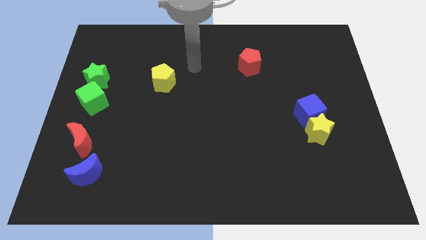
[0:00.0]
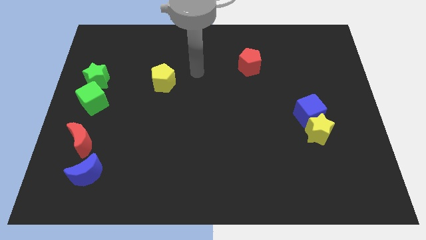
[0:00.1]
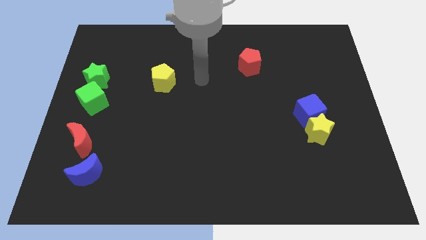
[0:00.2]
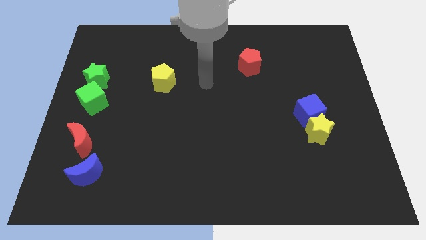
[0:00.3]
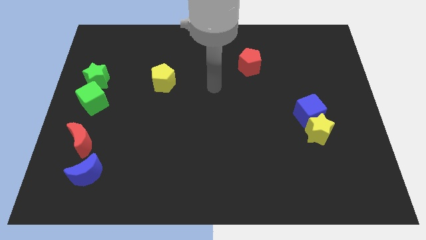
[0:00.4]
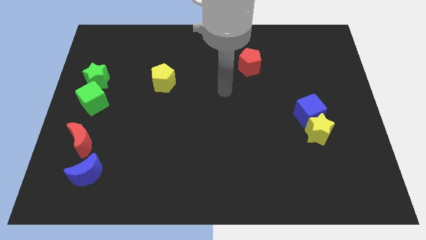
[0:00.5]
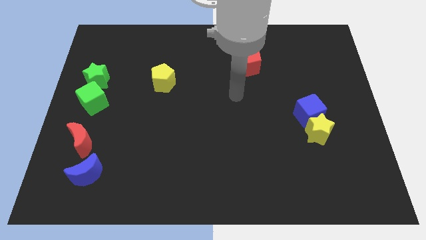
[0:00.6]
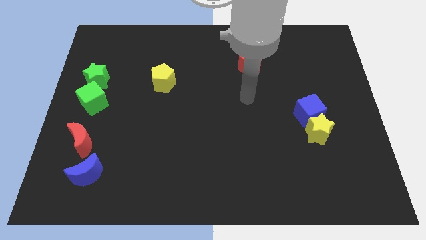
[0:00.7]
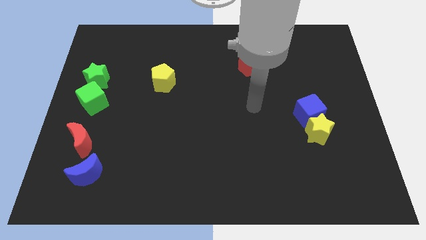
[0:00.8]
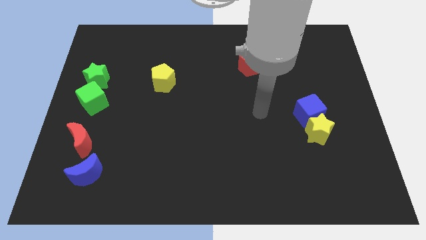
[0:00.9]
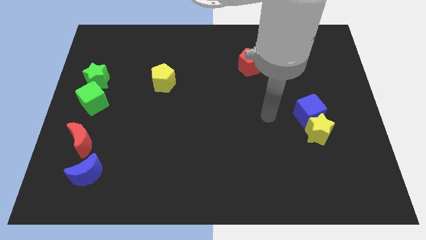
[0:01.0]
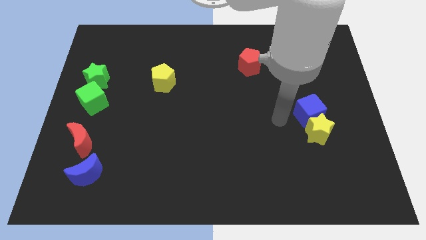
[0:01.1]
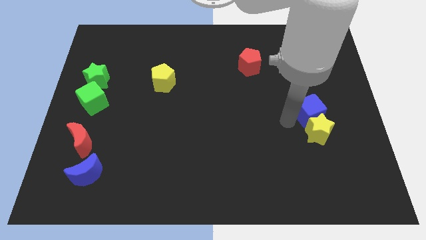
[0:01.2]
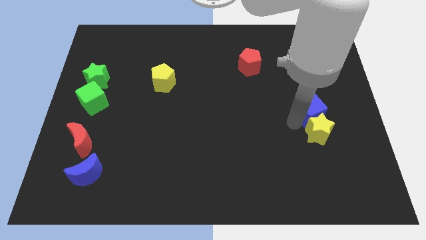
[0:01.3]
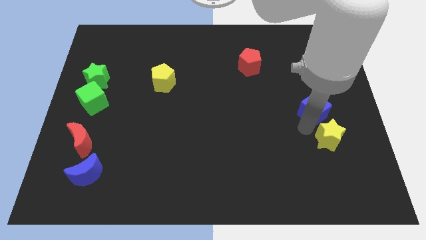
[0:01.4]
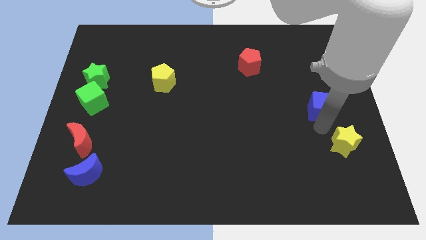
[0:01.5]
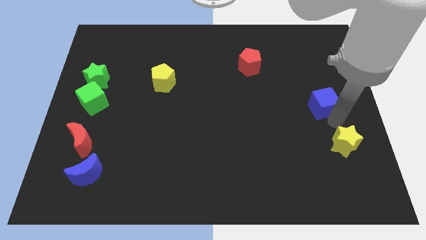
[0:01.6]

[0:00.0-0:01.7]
pull the blue cube apart from the yellow star

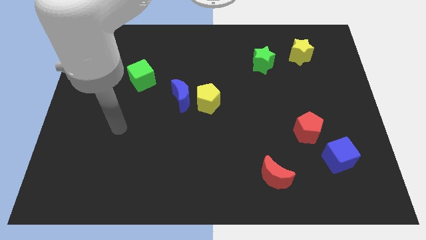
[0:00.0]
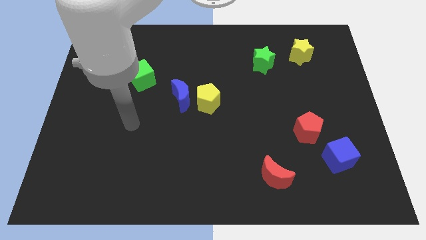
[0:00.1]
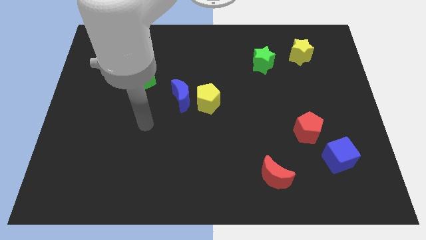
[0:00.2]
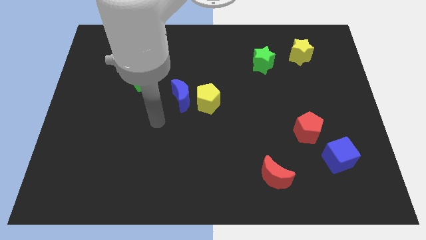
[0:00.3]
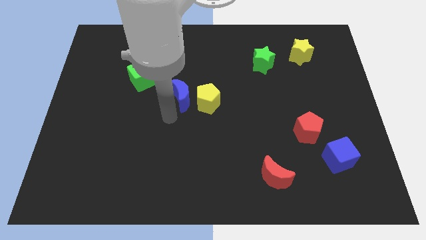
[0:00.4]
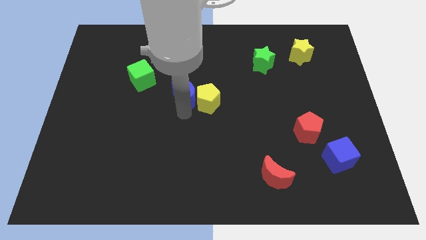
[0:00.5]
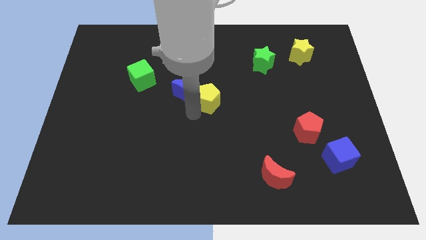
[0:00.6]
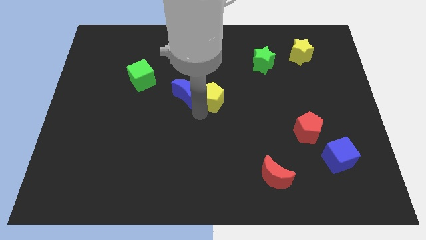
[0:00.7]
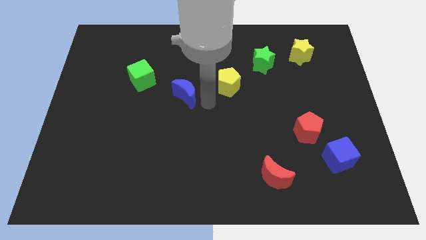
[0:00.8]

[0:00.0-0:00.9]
separate the blue moon from the yellow pentagon

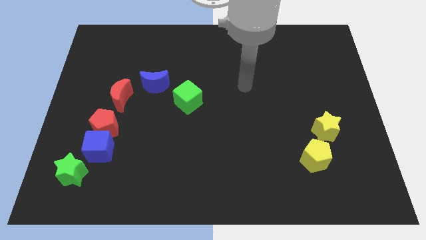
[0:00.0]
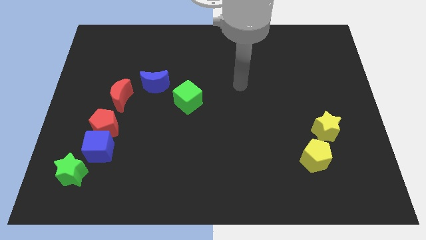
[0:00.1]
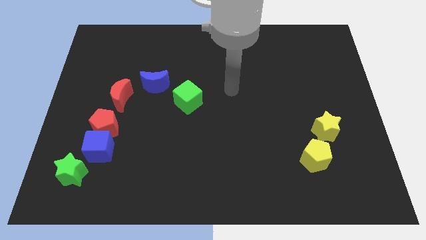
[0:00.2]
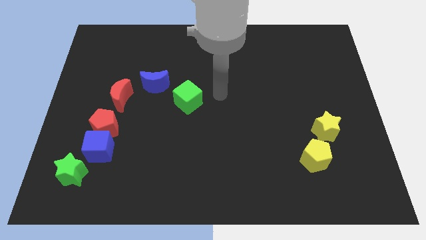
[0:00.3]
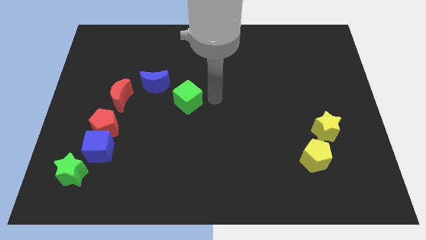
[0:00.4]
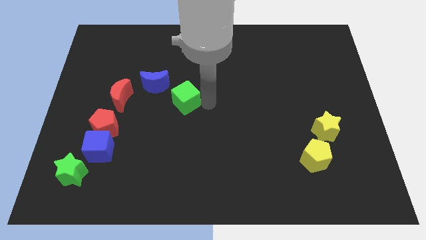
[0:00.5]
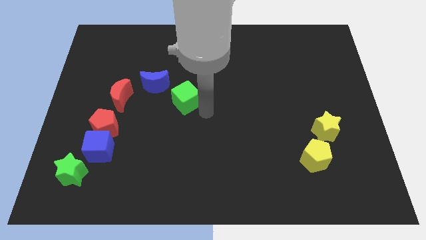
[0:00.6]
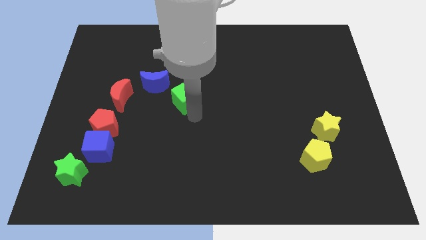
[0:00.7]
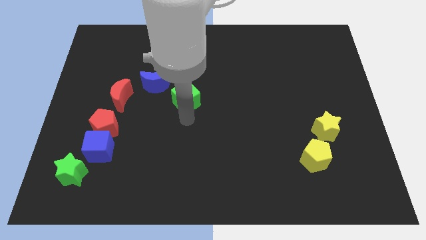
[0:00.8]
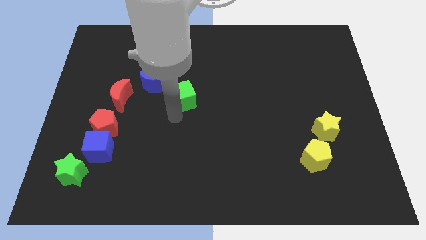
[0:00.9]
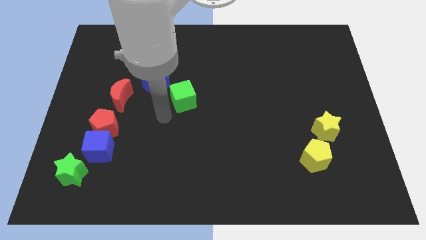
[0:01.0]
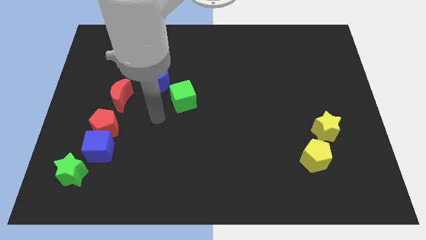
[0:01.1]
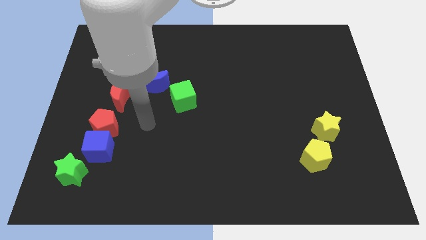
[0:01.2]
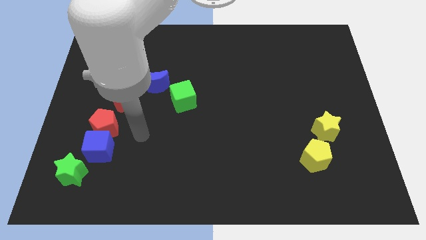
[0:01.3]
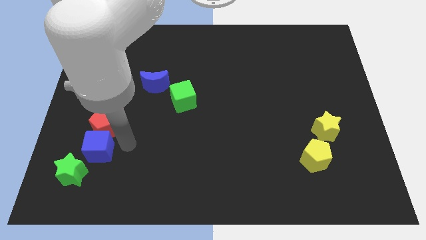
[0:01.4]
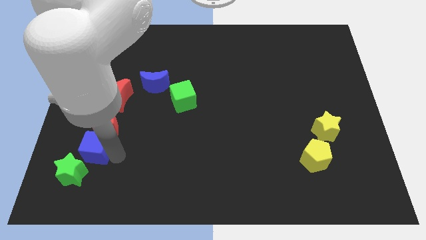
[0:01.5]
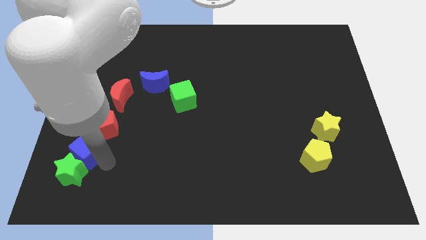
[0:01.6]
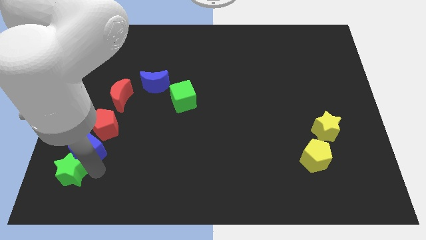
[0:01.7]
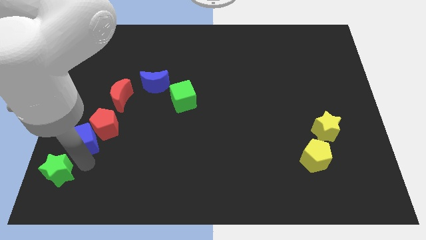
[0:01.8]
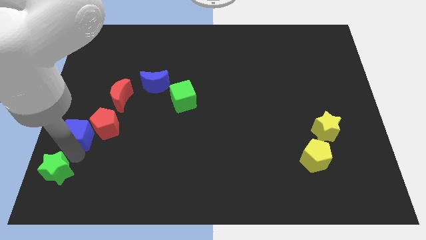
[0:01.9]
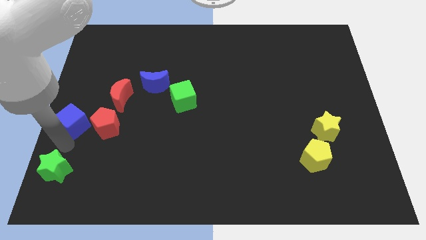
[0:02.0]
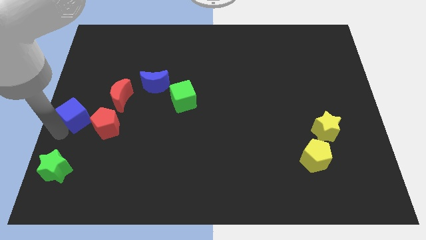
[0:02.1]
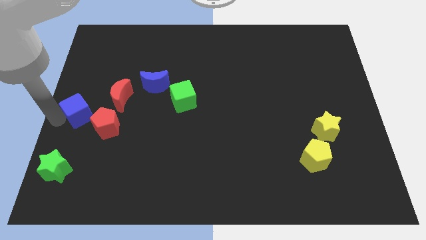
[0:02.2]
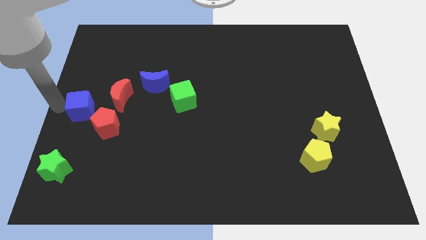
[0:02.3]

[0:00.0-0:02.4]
move the blue cube away from the red pentagon and green star

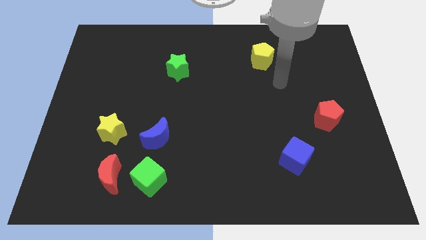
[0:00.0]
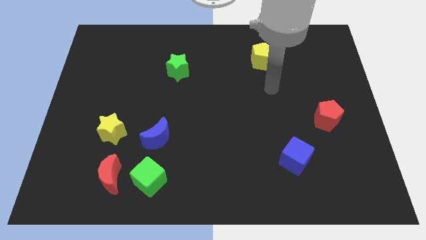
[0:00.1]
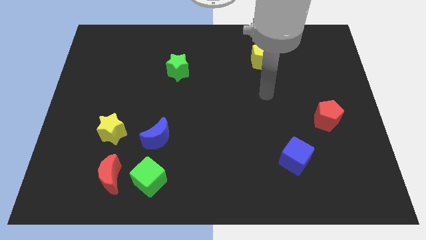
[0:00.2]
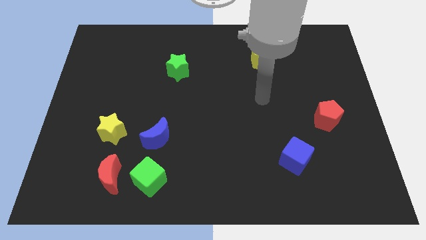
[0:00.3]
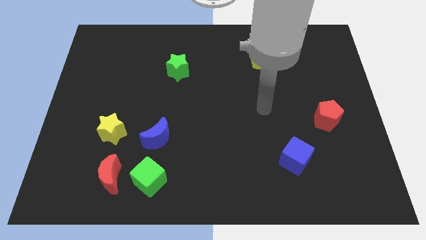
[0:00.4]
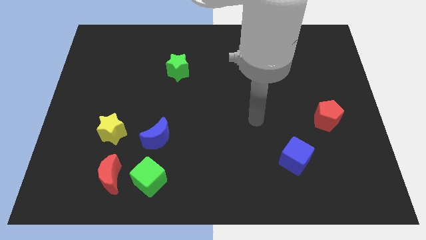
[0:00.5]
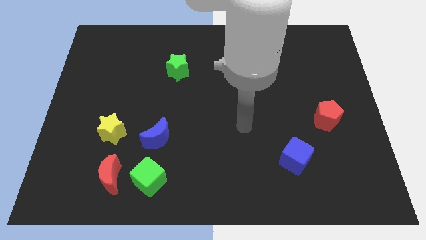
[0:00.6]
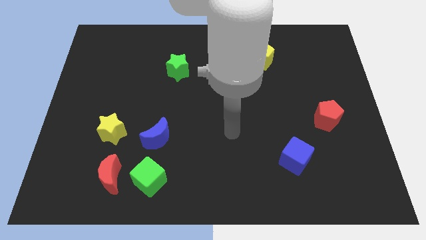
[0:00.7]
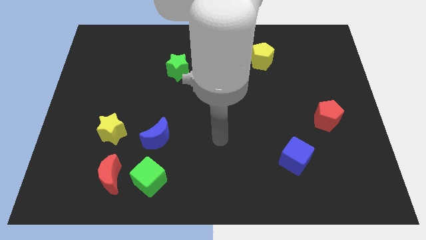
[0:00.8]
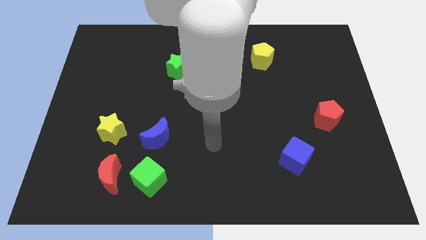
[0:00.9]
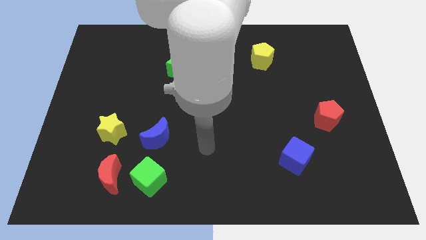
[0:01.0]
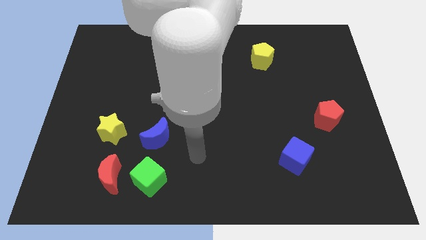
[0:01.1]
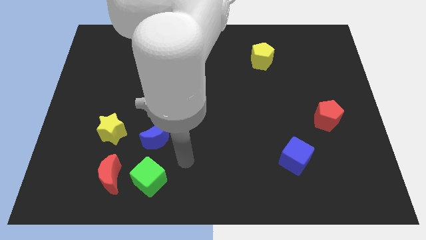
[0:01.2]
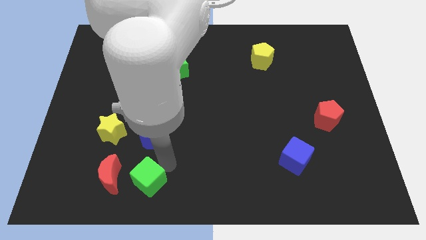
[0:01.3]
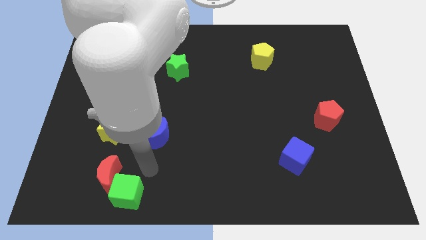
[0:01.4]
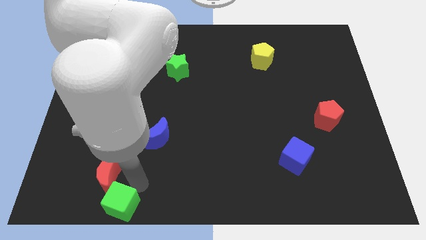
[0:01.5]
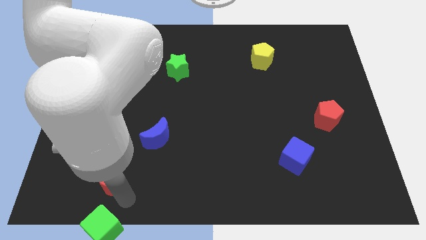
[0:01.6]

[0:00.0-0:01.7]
separate the red moon from the green cube

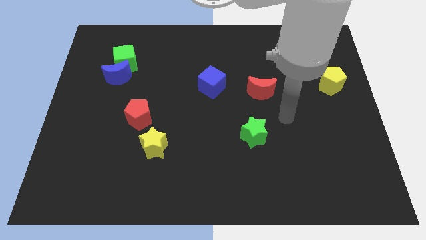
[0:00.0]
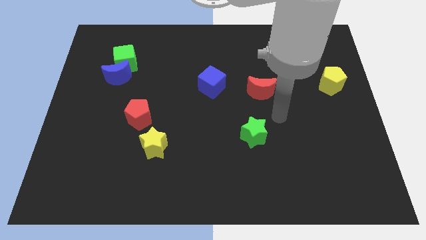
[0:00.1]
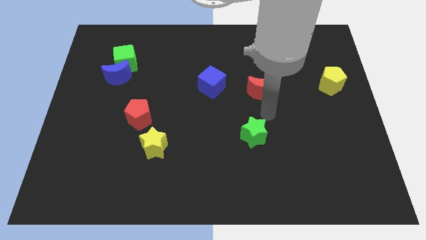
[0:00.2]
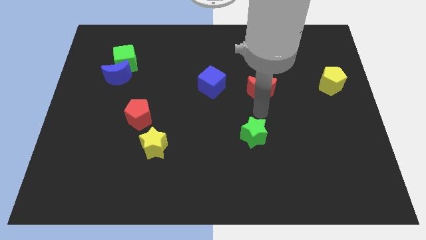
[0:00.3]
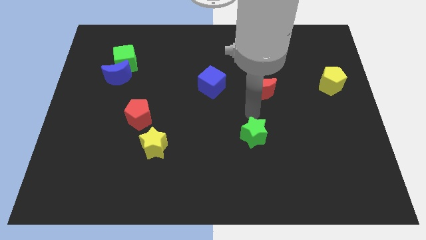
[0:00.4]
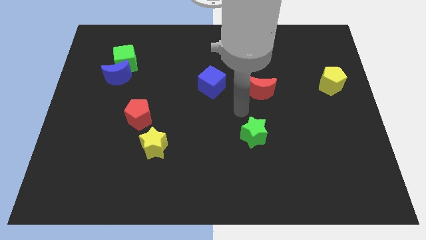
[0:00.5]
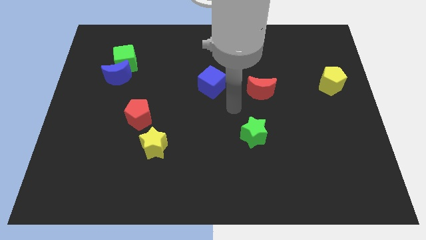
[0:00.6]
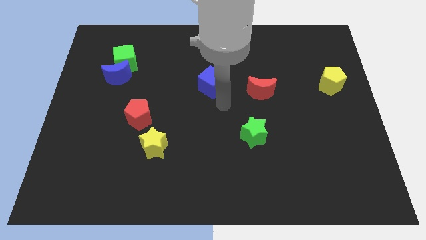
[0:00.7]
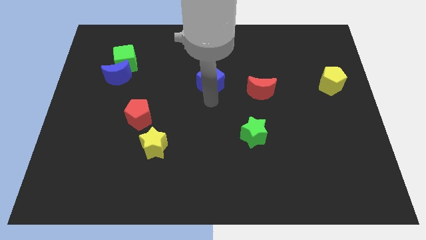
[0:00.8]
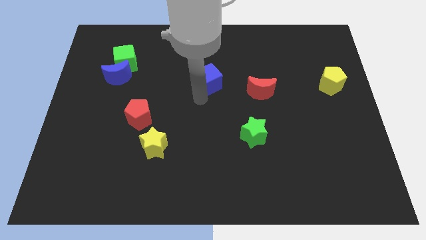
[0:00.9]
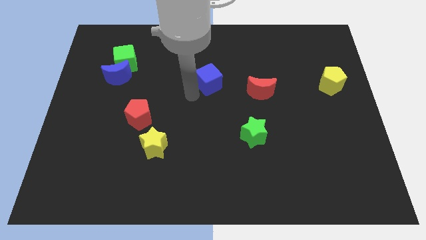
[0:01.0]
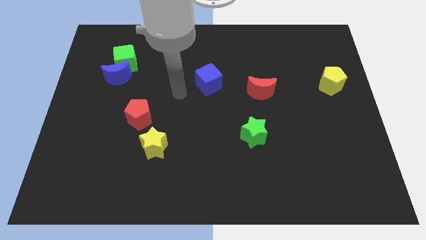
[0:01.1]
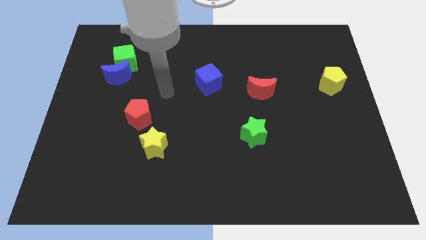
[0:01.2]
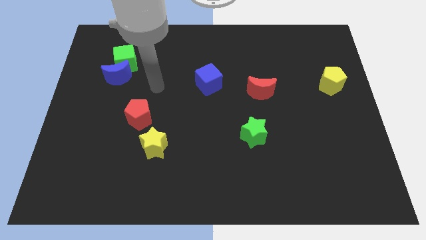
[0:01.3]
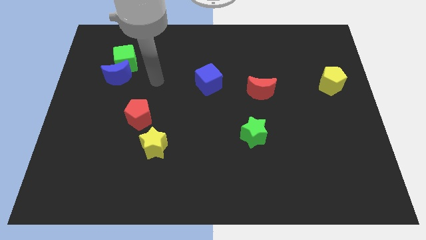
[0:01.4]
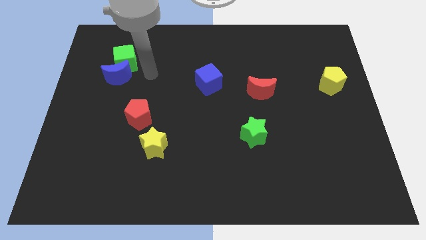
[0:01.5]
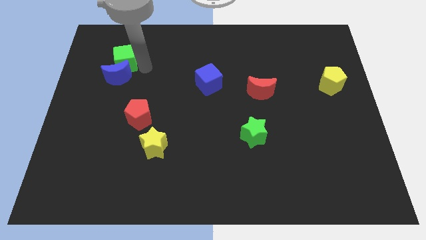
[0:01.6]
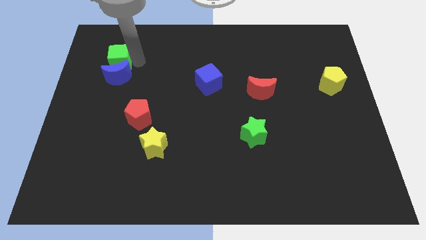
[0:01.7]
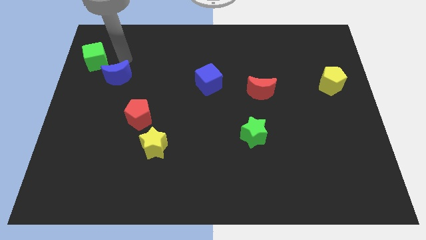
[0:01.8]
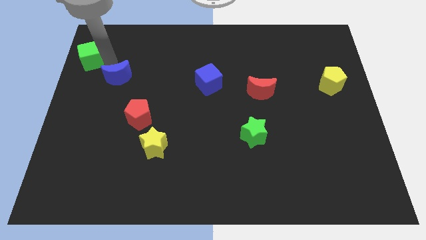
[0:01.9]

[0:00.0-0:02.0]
pull the blue moon apart from the green cube

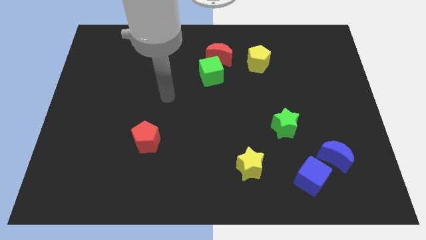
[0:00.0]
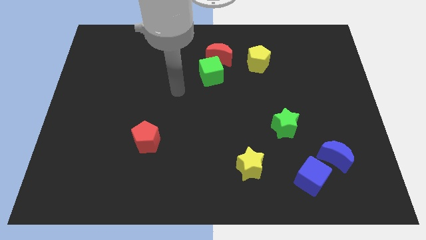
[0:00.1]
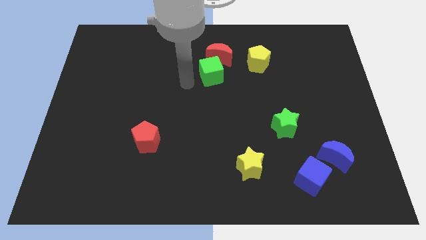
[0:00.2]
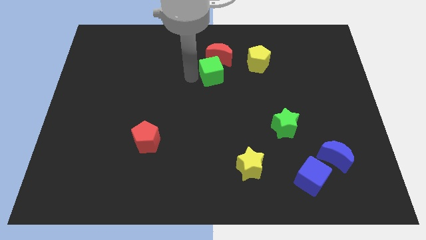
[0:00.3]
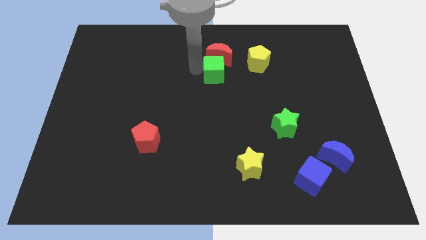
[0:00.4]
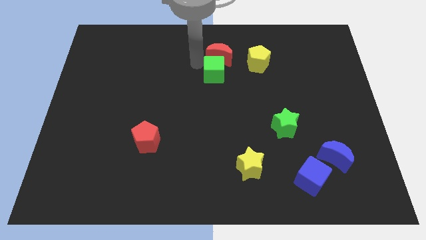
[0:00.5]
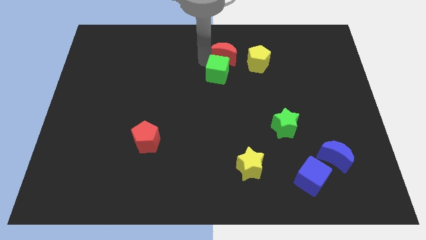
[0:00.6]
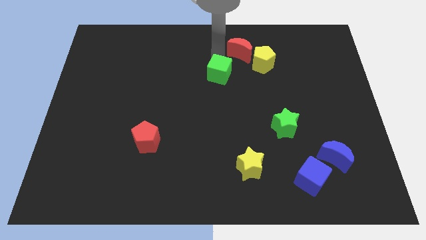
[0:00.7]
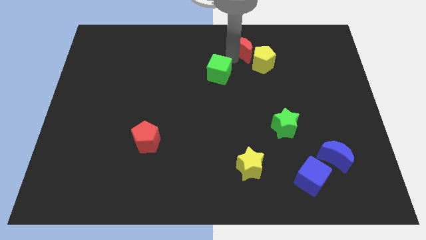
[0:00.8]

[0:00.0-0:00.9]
pull the green cube apart from the red moon
